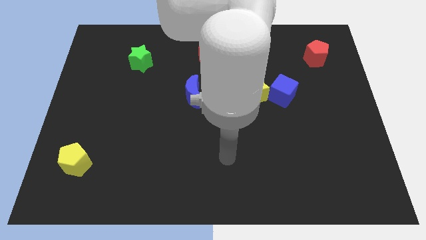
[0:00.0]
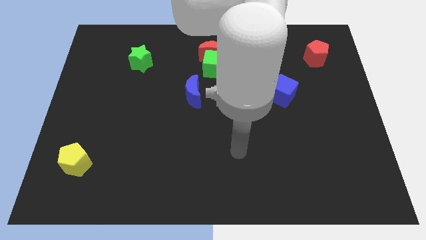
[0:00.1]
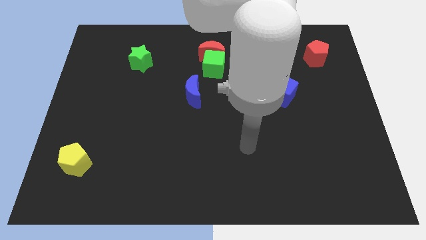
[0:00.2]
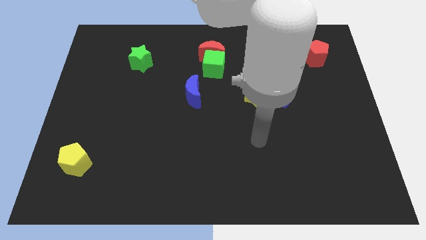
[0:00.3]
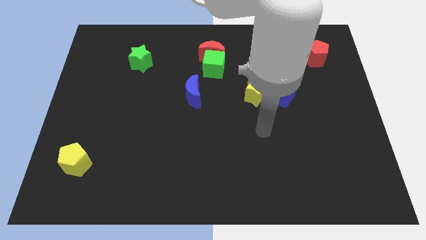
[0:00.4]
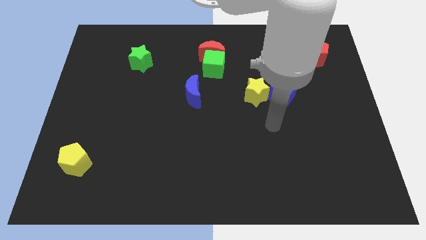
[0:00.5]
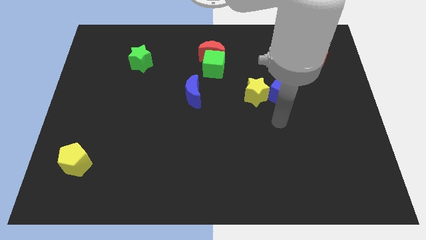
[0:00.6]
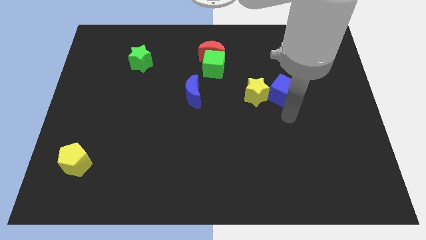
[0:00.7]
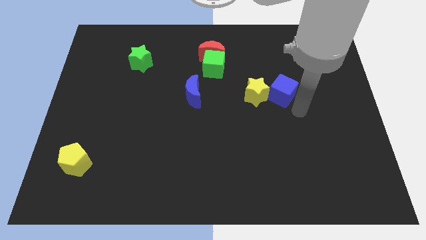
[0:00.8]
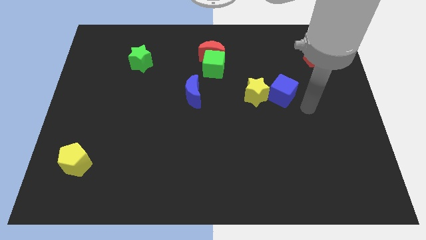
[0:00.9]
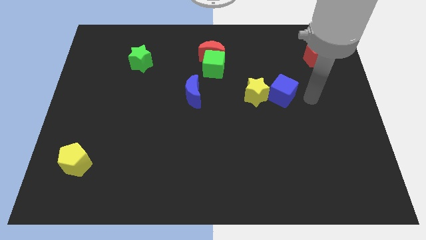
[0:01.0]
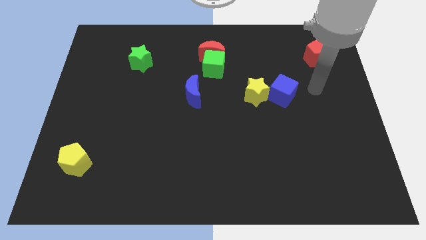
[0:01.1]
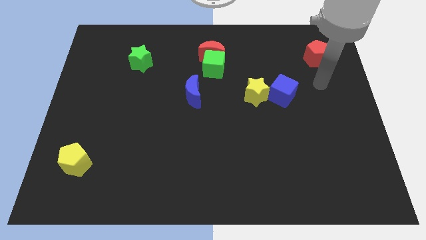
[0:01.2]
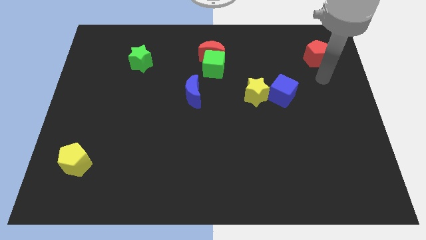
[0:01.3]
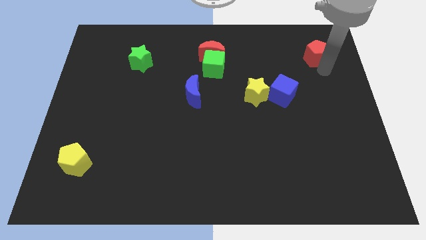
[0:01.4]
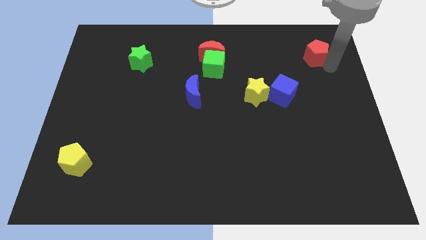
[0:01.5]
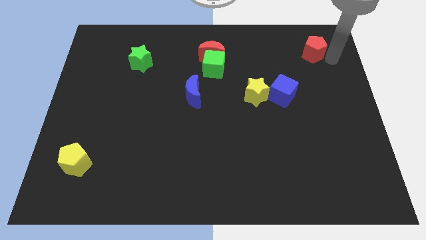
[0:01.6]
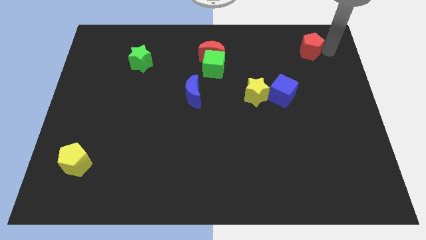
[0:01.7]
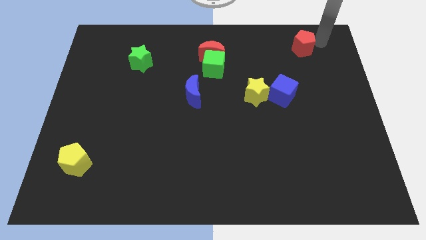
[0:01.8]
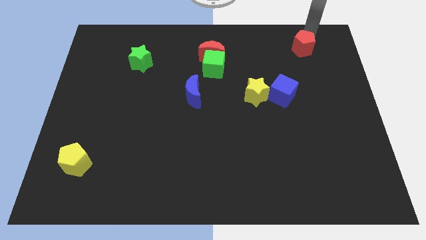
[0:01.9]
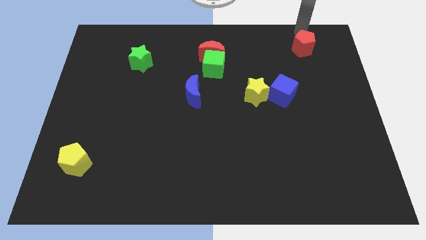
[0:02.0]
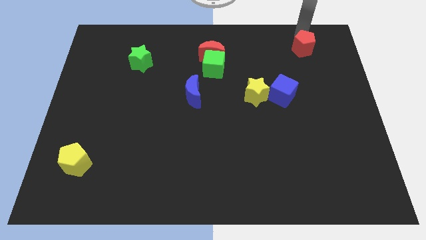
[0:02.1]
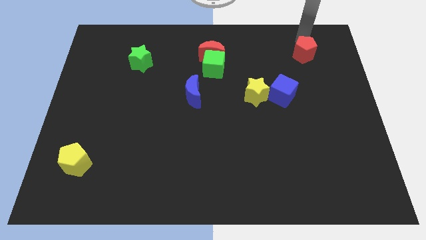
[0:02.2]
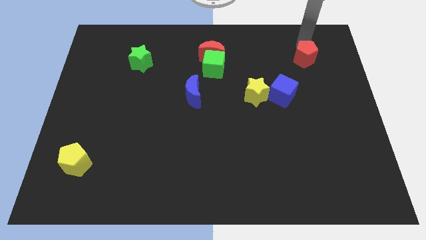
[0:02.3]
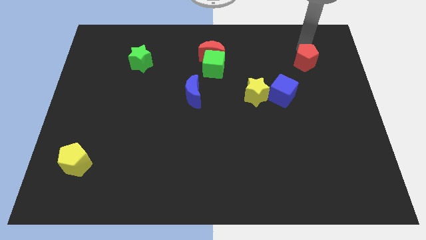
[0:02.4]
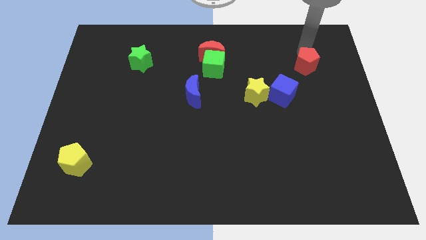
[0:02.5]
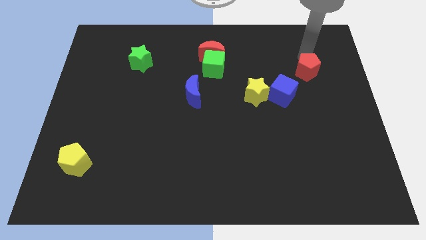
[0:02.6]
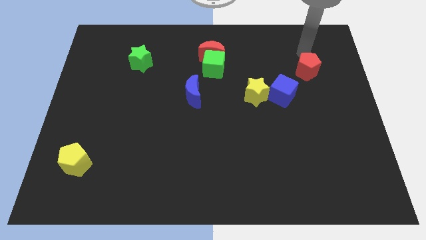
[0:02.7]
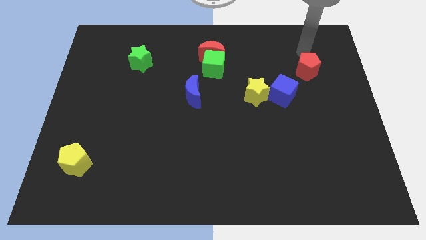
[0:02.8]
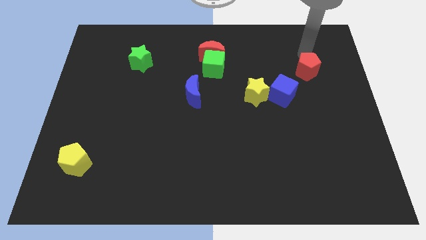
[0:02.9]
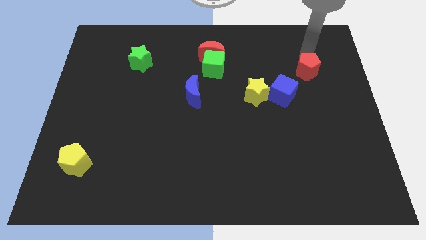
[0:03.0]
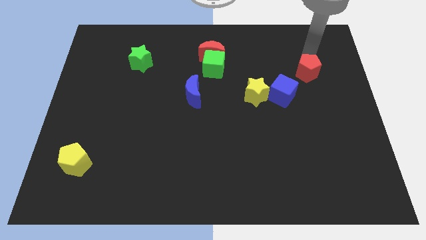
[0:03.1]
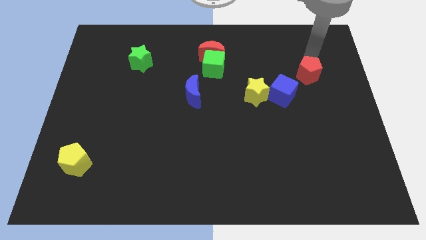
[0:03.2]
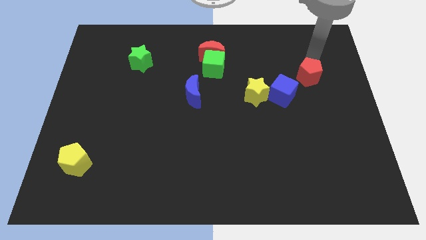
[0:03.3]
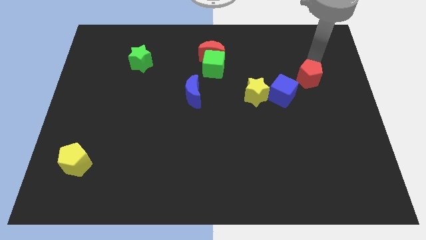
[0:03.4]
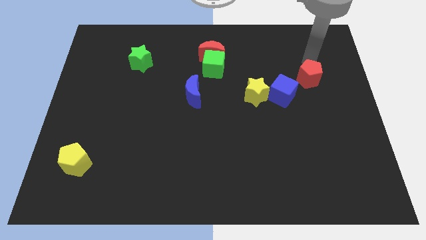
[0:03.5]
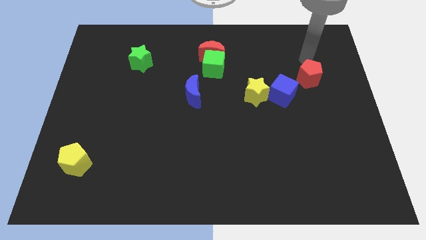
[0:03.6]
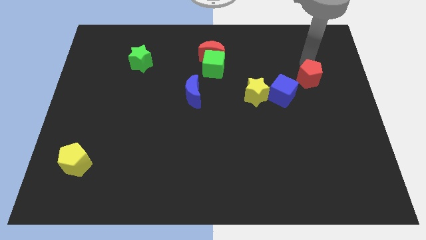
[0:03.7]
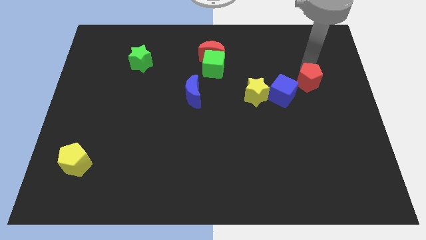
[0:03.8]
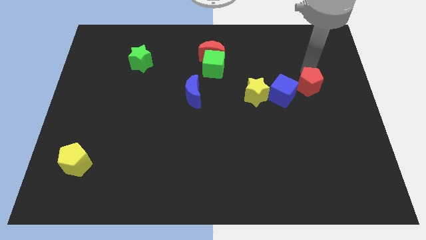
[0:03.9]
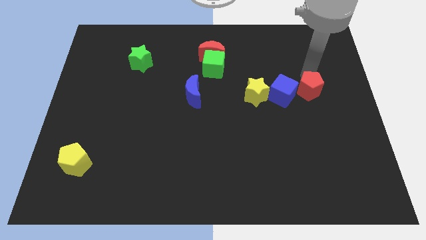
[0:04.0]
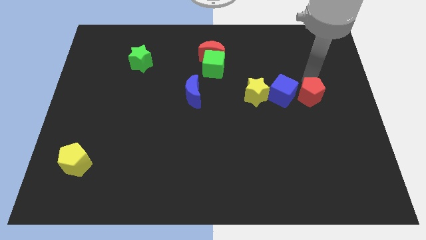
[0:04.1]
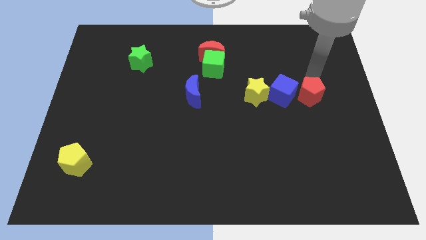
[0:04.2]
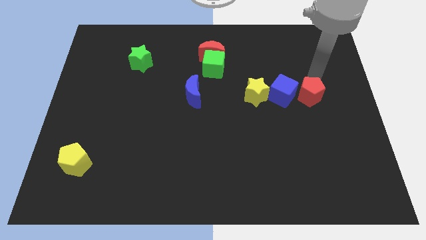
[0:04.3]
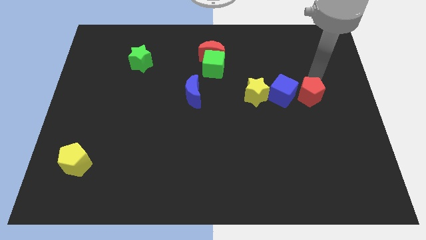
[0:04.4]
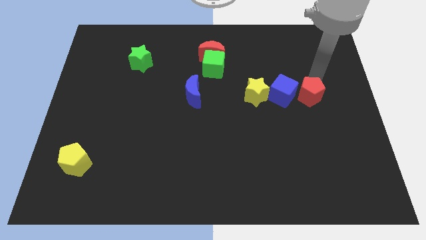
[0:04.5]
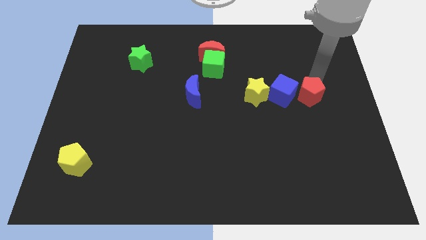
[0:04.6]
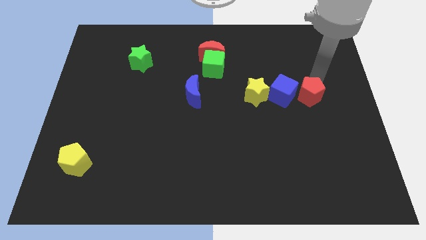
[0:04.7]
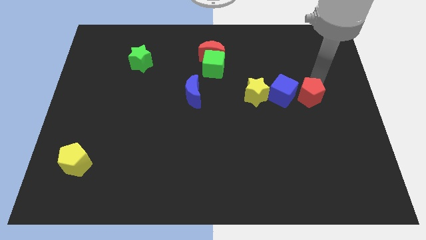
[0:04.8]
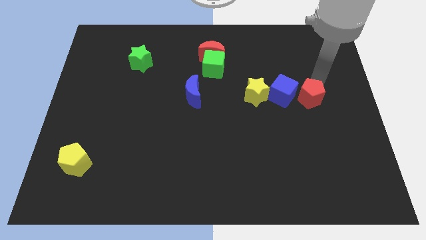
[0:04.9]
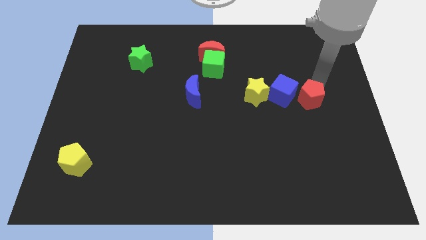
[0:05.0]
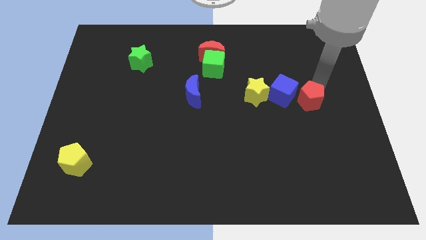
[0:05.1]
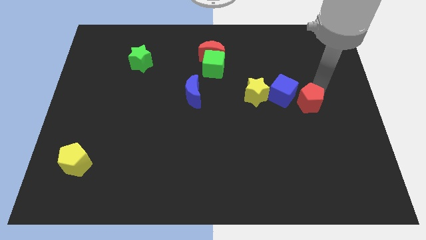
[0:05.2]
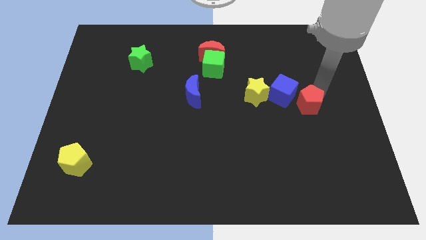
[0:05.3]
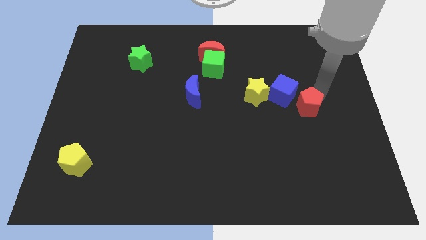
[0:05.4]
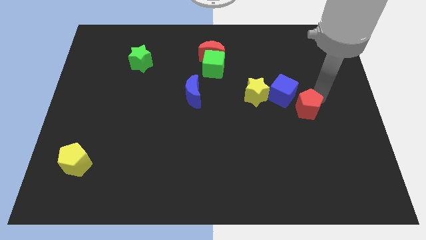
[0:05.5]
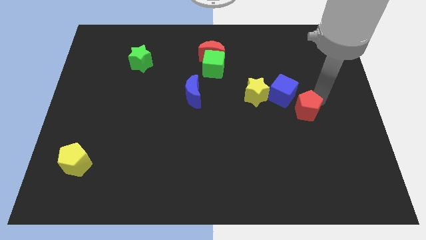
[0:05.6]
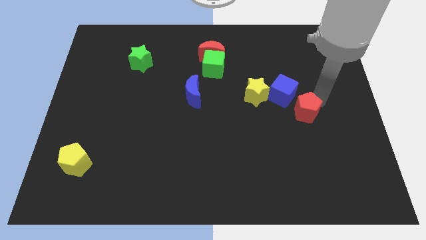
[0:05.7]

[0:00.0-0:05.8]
push the red pentagon to the bottom side of the blue cube

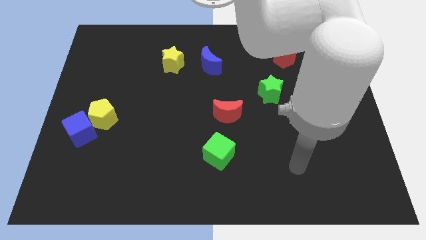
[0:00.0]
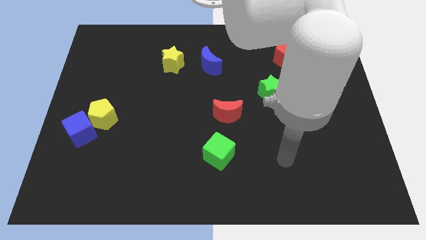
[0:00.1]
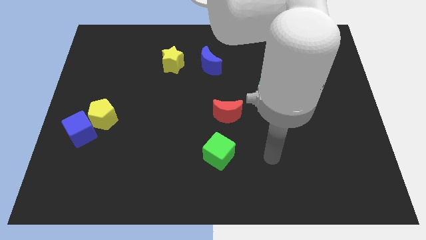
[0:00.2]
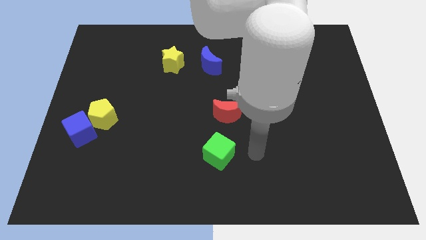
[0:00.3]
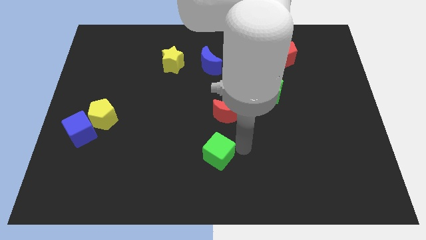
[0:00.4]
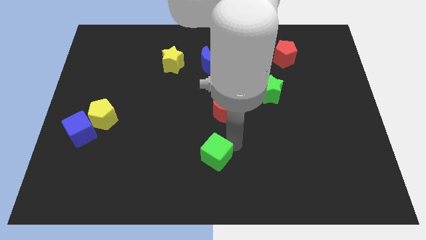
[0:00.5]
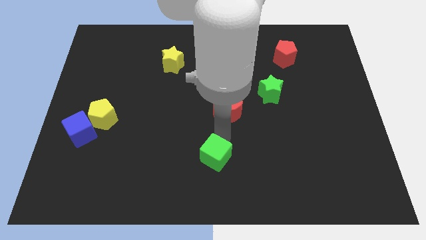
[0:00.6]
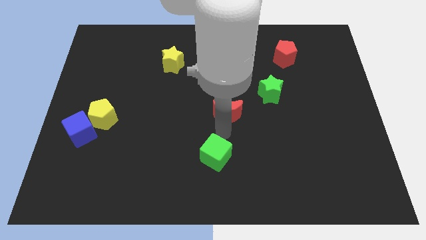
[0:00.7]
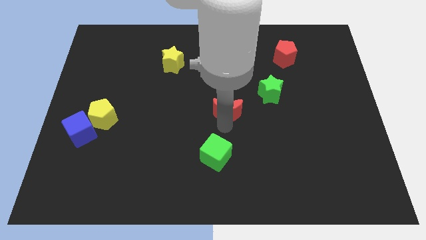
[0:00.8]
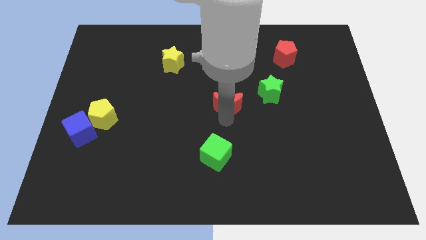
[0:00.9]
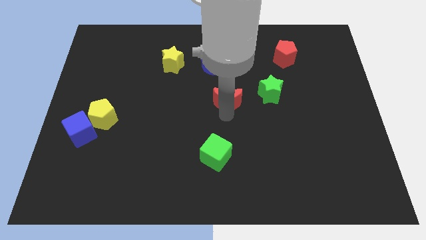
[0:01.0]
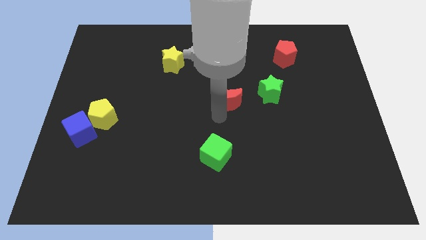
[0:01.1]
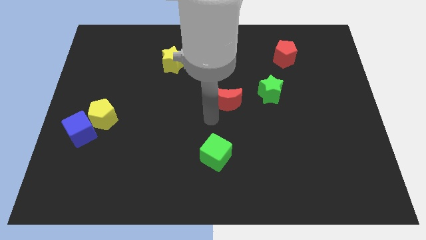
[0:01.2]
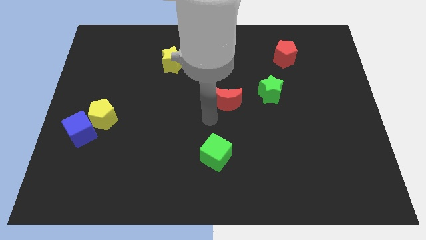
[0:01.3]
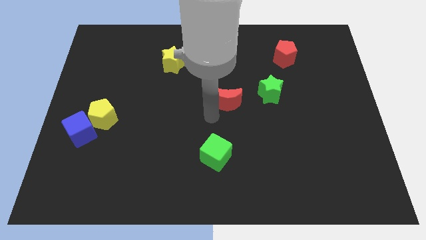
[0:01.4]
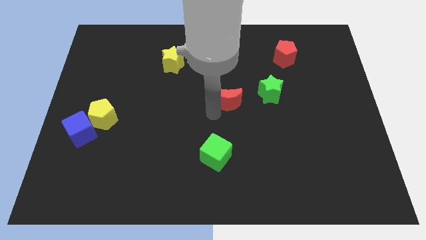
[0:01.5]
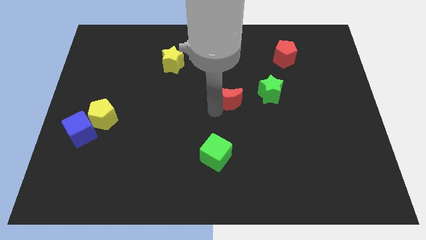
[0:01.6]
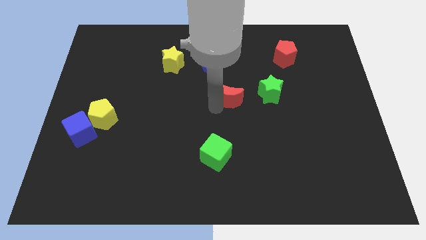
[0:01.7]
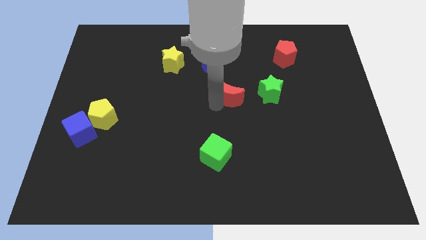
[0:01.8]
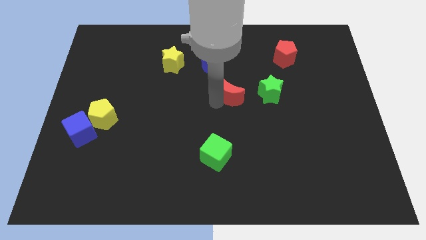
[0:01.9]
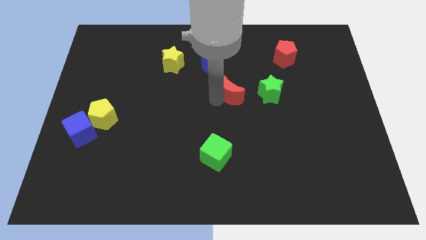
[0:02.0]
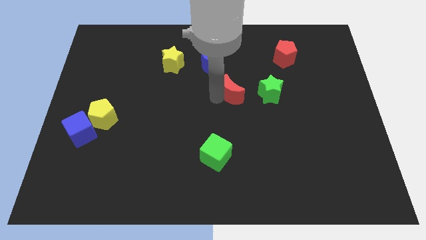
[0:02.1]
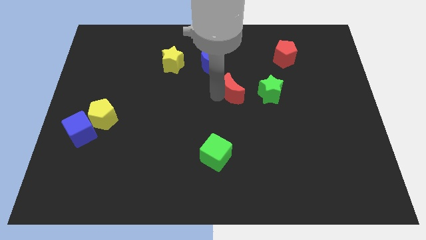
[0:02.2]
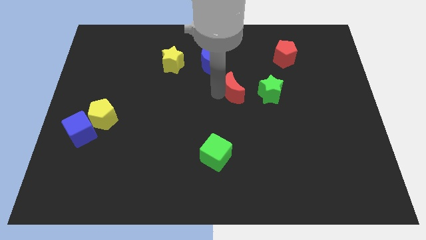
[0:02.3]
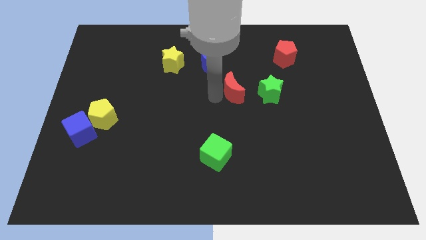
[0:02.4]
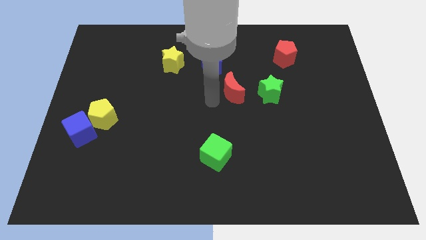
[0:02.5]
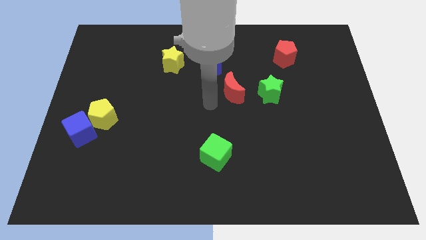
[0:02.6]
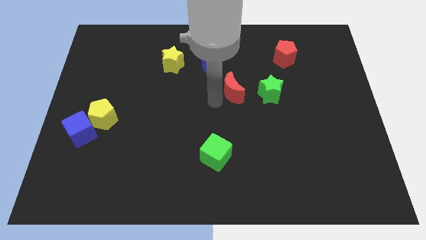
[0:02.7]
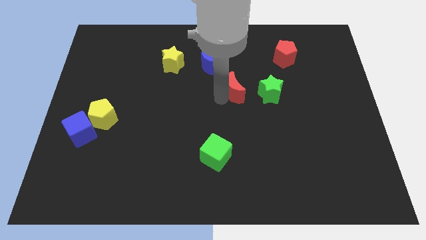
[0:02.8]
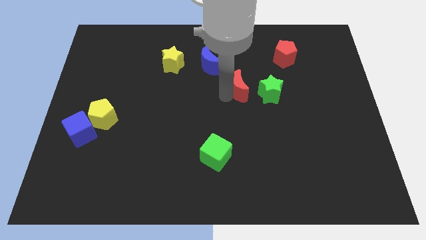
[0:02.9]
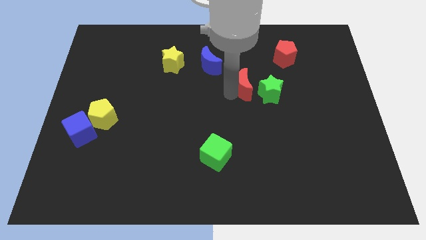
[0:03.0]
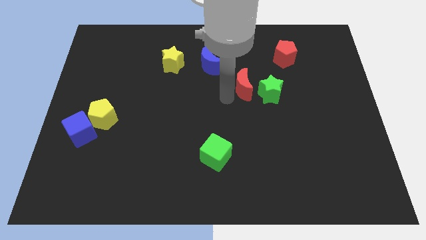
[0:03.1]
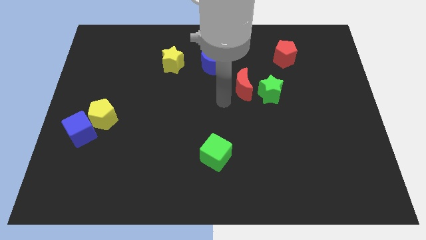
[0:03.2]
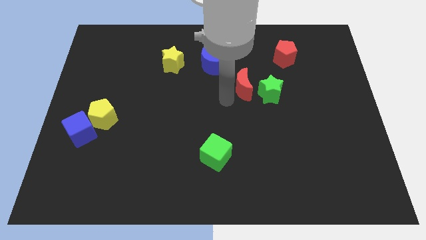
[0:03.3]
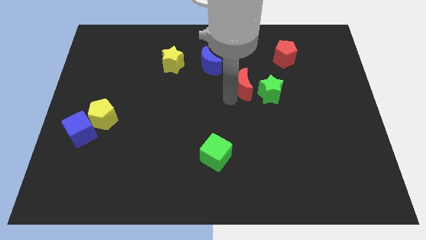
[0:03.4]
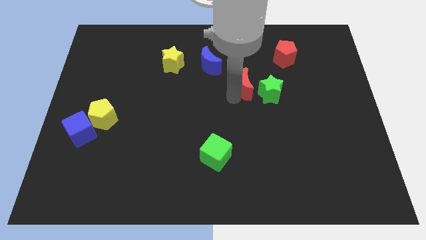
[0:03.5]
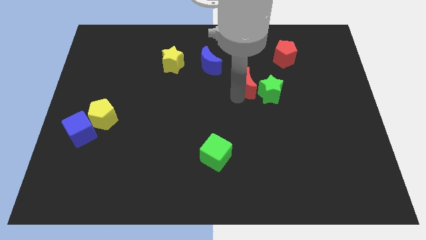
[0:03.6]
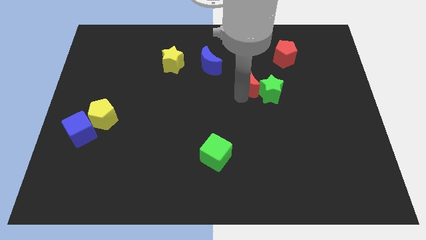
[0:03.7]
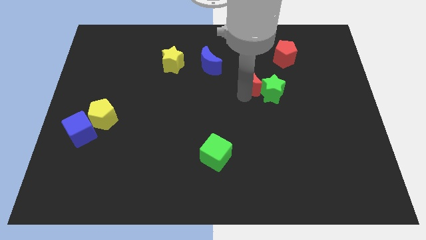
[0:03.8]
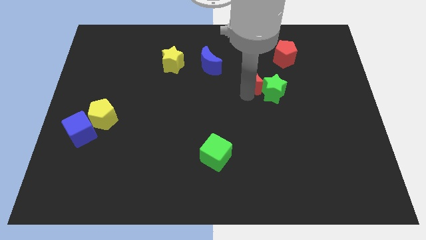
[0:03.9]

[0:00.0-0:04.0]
slide the red moon diagonally down and to the left of the red pentagon
